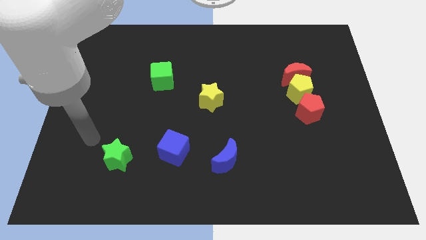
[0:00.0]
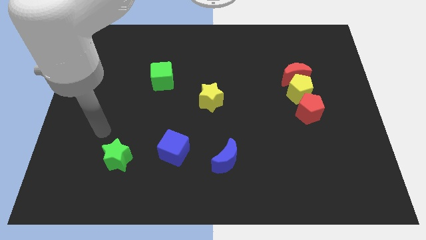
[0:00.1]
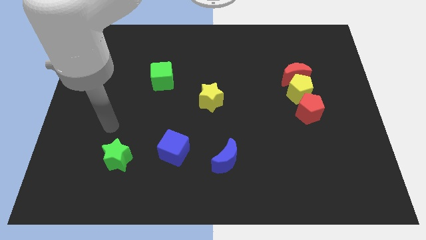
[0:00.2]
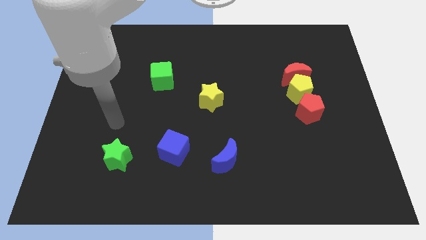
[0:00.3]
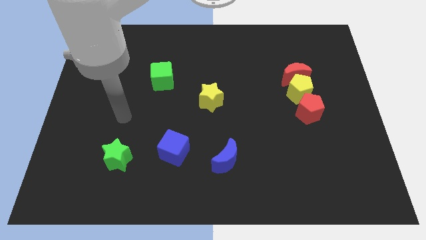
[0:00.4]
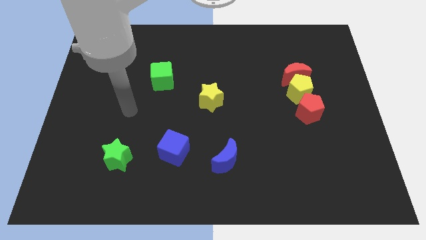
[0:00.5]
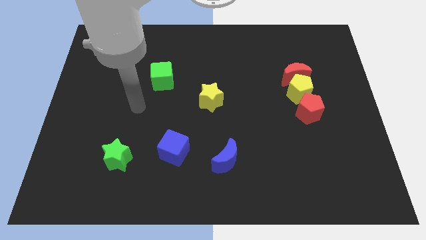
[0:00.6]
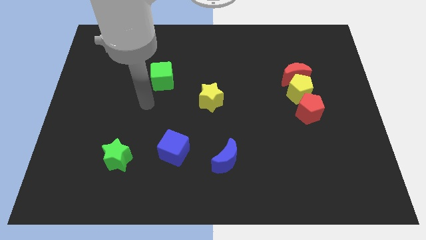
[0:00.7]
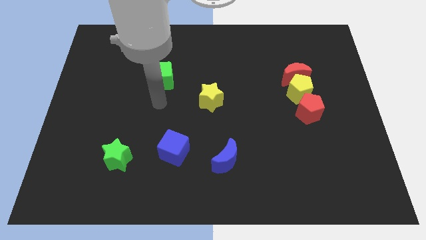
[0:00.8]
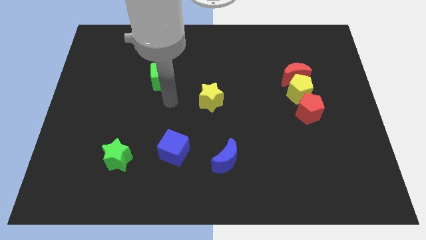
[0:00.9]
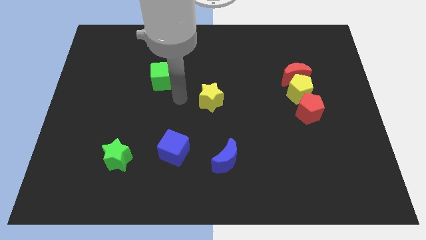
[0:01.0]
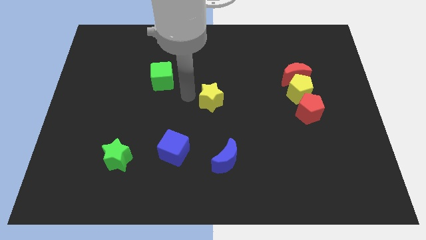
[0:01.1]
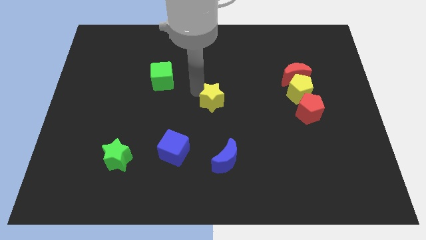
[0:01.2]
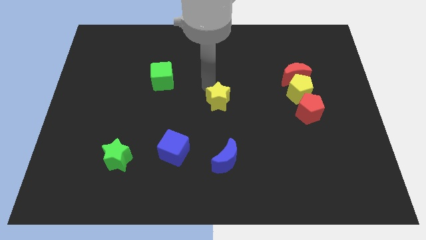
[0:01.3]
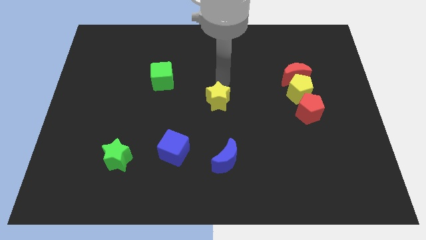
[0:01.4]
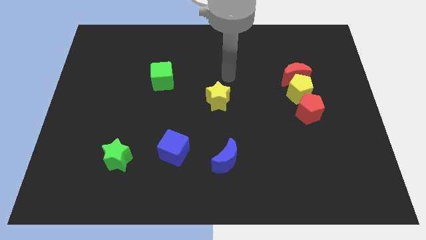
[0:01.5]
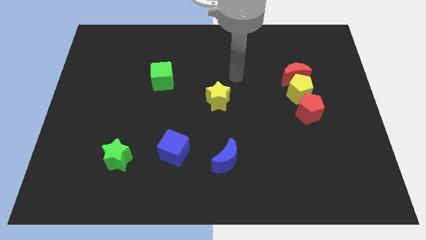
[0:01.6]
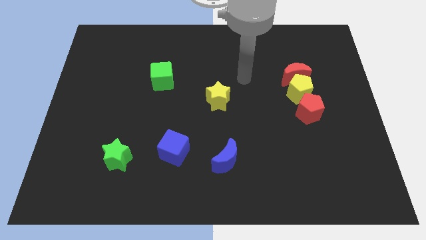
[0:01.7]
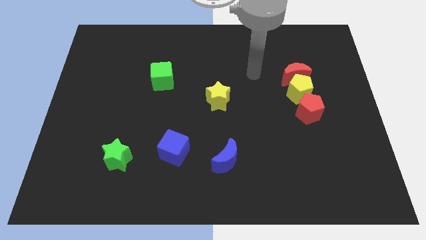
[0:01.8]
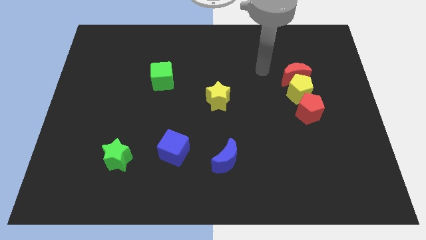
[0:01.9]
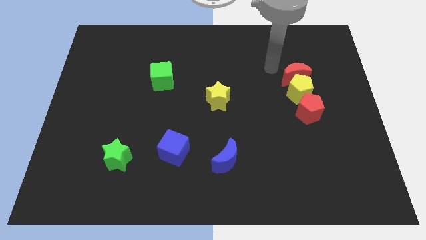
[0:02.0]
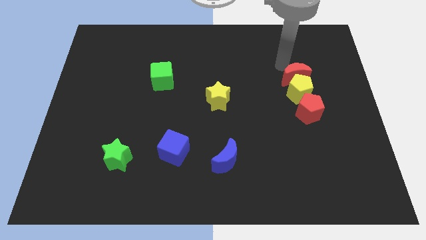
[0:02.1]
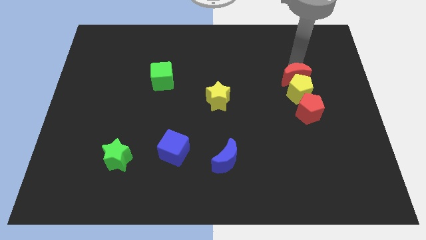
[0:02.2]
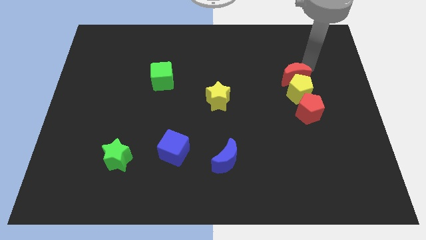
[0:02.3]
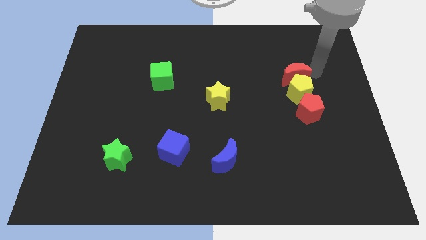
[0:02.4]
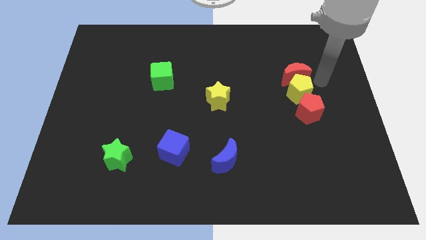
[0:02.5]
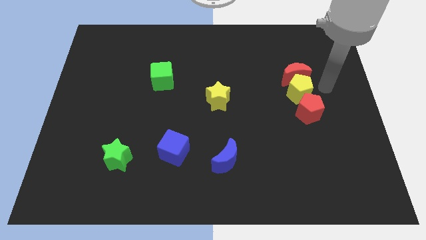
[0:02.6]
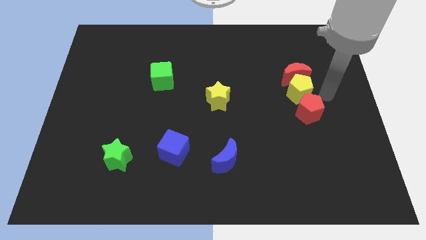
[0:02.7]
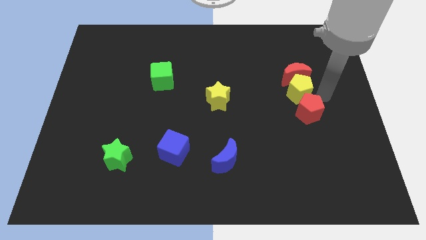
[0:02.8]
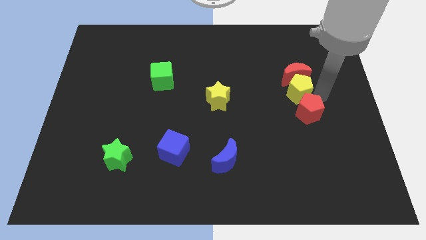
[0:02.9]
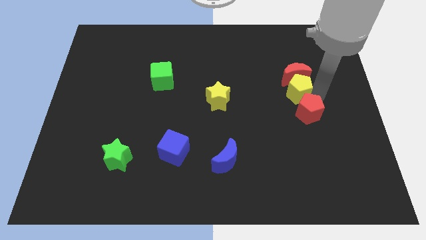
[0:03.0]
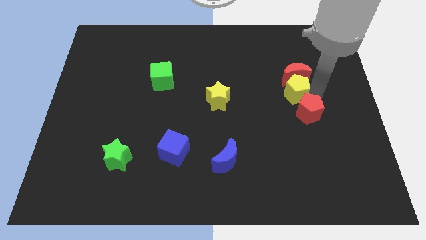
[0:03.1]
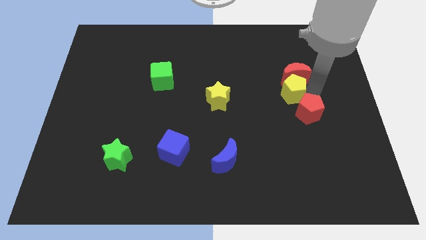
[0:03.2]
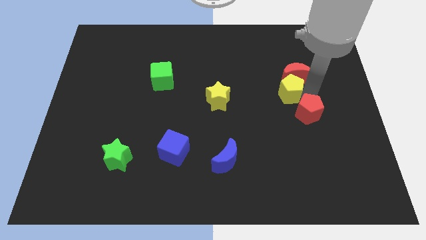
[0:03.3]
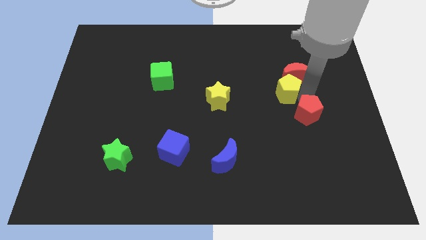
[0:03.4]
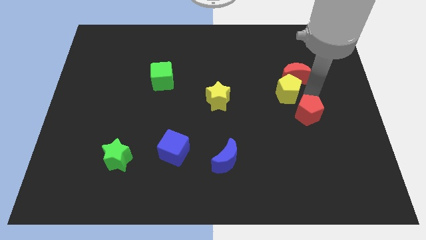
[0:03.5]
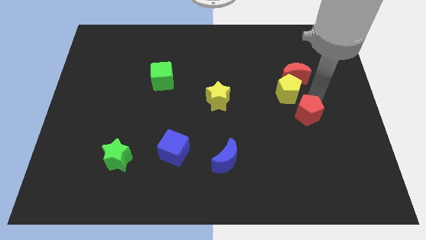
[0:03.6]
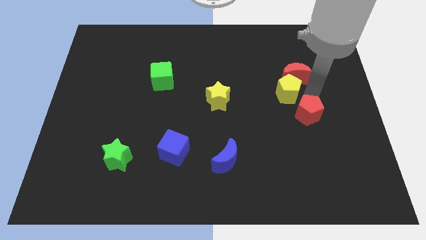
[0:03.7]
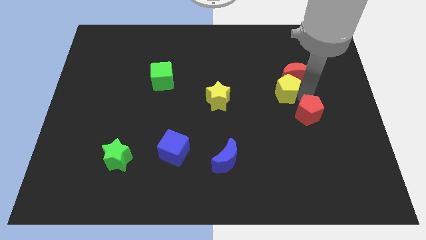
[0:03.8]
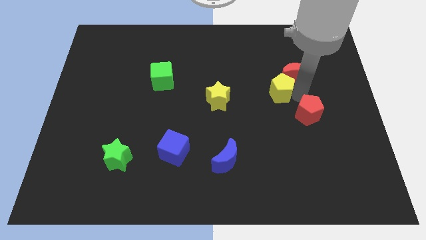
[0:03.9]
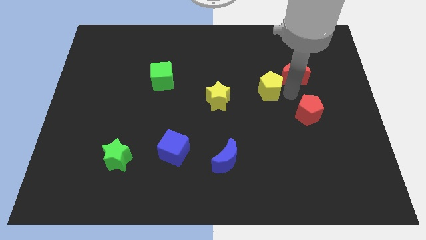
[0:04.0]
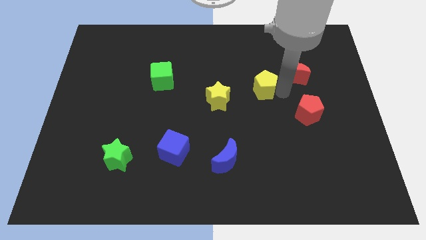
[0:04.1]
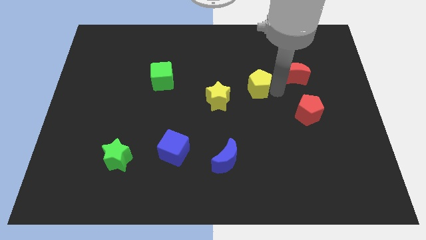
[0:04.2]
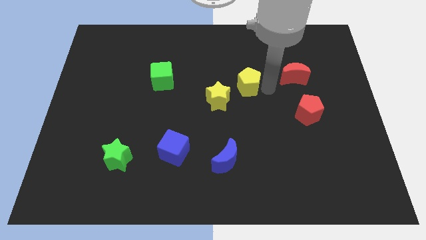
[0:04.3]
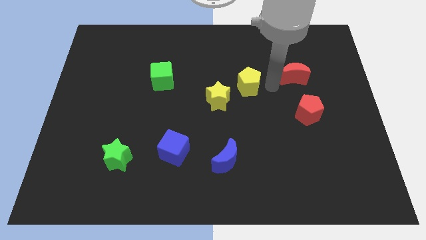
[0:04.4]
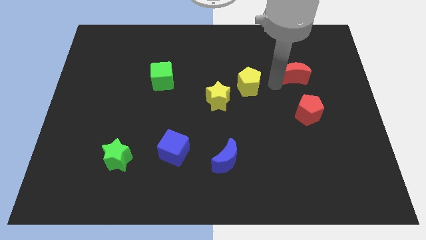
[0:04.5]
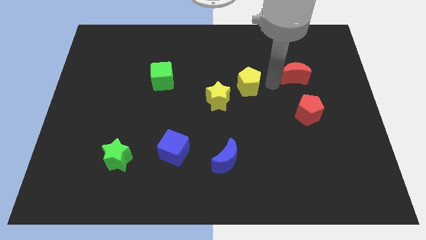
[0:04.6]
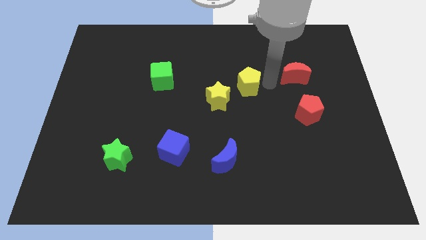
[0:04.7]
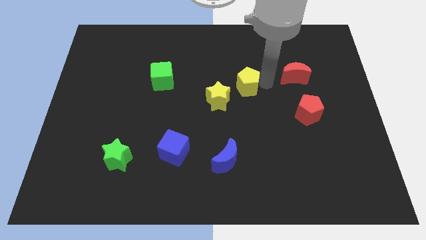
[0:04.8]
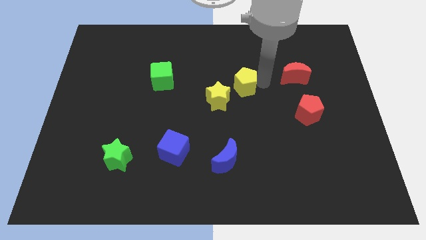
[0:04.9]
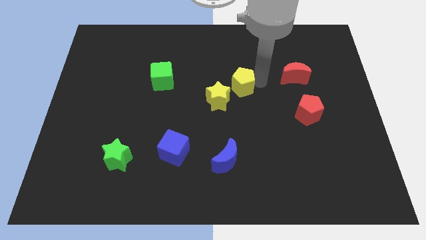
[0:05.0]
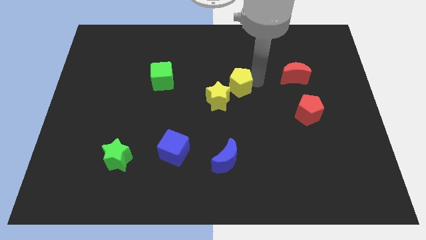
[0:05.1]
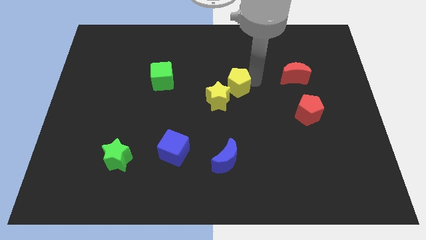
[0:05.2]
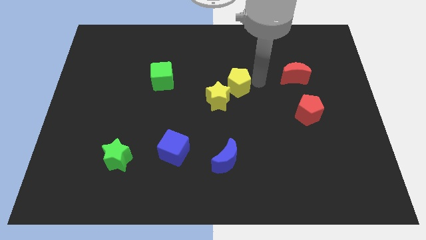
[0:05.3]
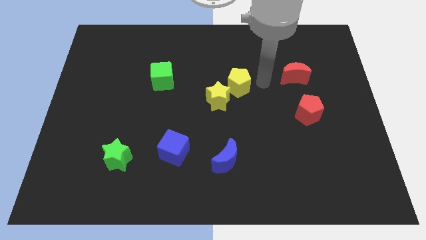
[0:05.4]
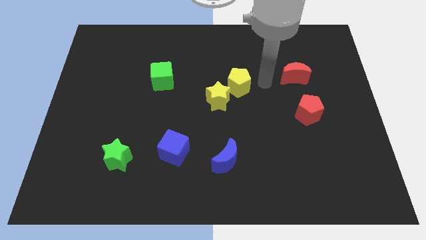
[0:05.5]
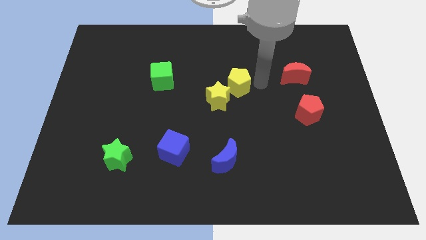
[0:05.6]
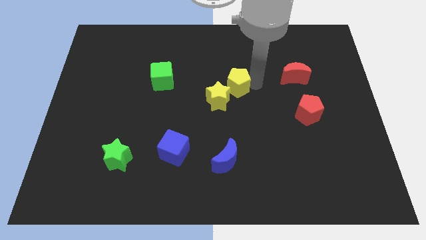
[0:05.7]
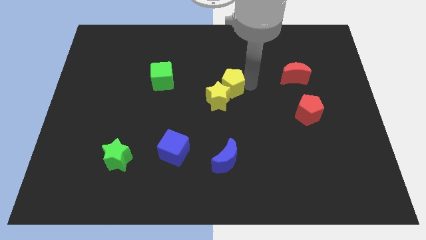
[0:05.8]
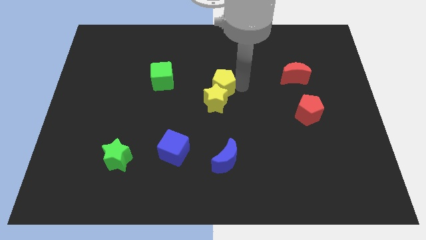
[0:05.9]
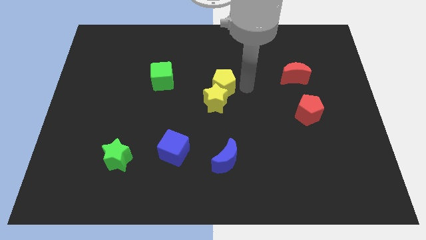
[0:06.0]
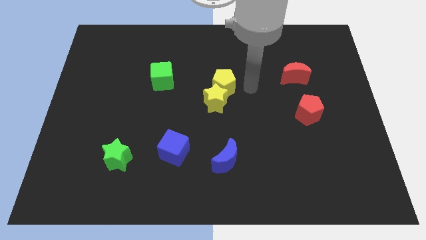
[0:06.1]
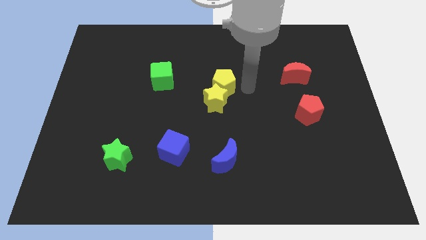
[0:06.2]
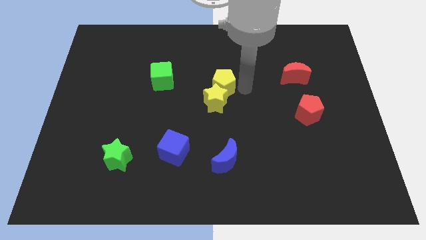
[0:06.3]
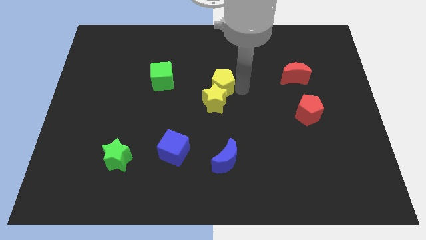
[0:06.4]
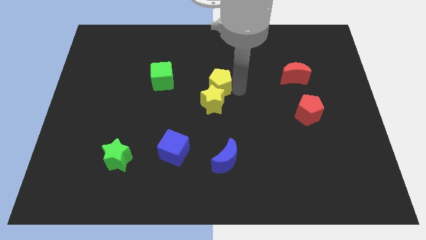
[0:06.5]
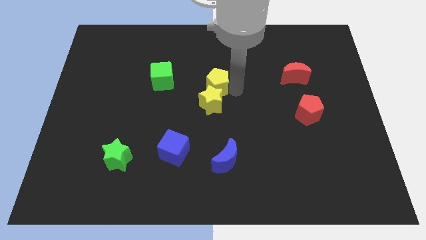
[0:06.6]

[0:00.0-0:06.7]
push the yellow pentagon left

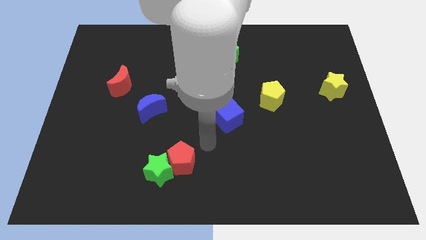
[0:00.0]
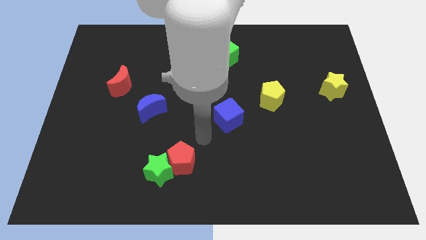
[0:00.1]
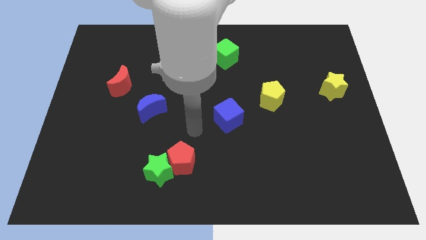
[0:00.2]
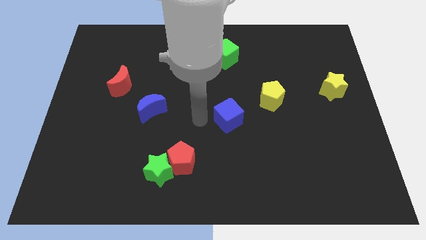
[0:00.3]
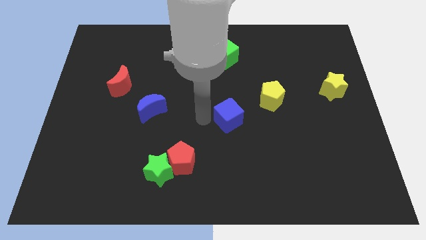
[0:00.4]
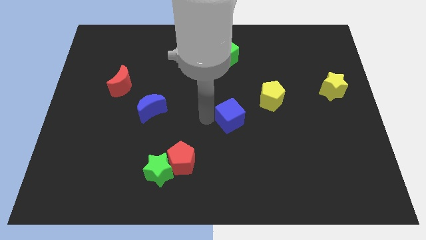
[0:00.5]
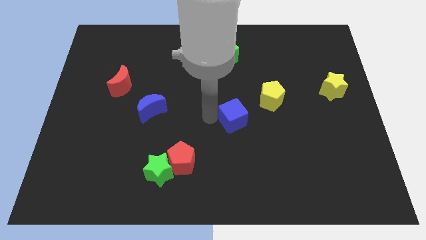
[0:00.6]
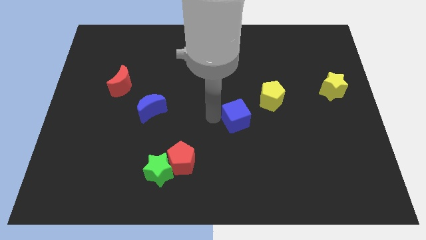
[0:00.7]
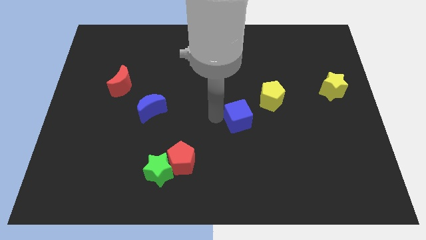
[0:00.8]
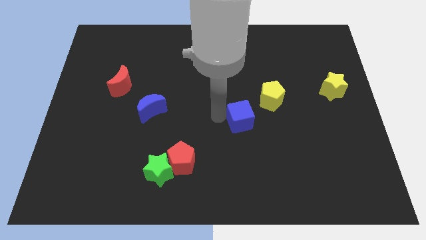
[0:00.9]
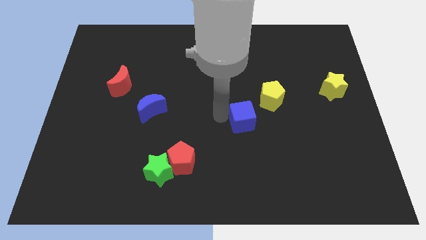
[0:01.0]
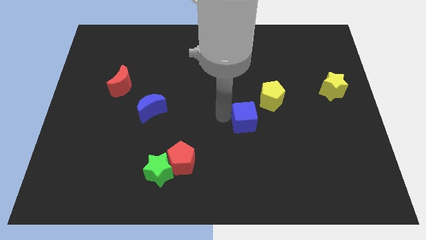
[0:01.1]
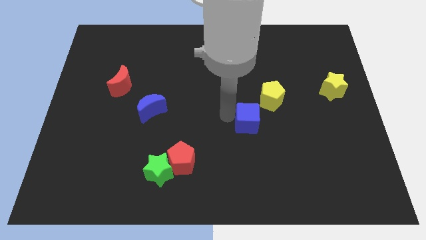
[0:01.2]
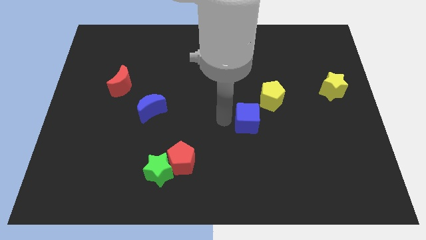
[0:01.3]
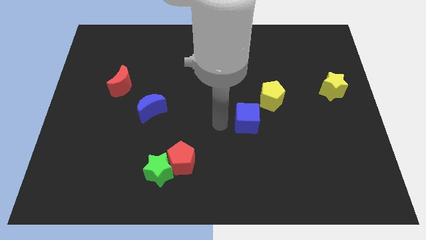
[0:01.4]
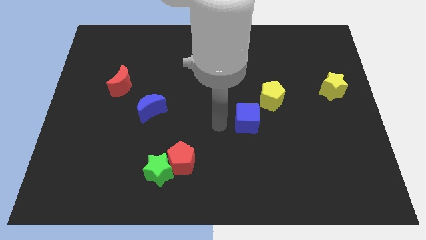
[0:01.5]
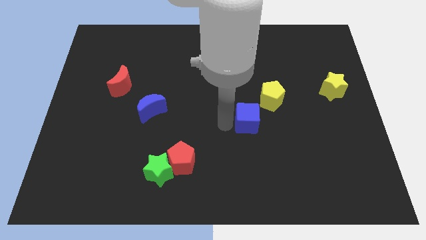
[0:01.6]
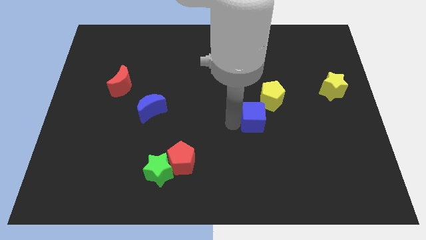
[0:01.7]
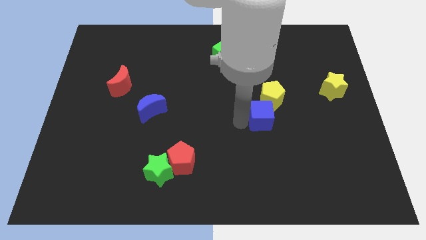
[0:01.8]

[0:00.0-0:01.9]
slide the blue cube to the right somewhat
